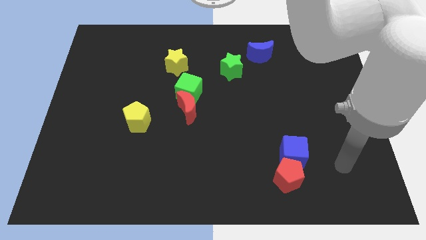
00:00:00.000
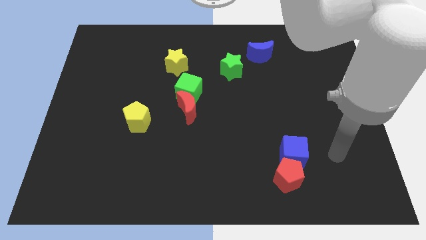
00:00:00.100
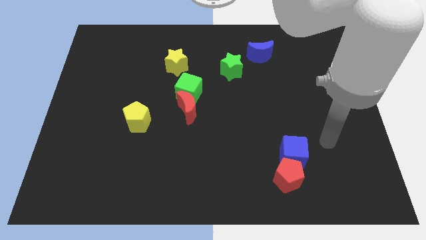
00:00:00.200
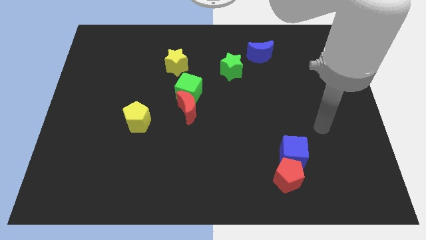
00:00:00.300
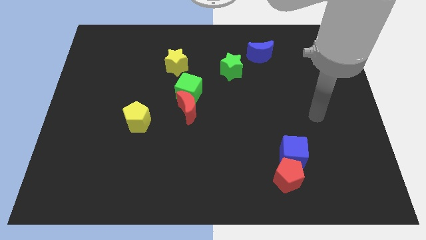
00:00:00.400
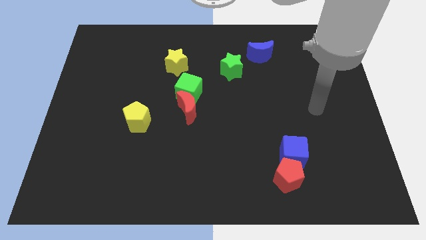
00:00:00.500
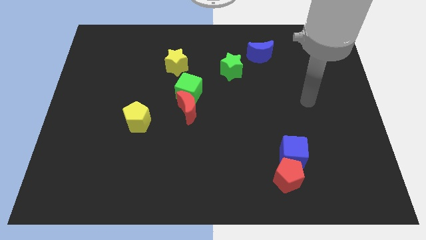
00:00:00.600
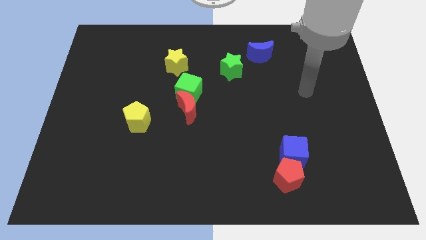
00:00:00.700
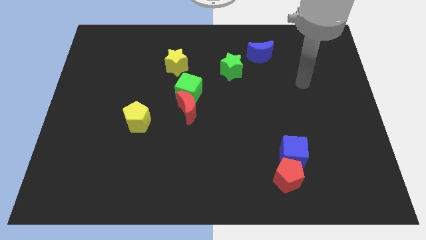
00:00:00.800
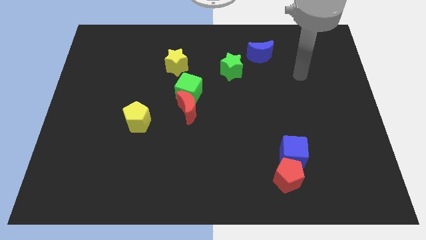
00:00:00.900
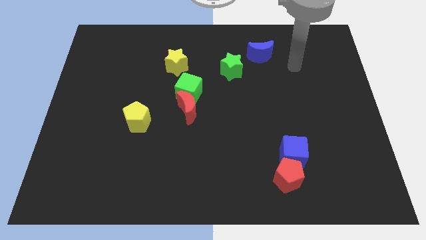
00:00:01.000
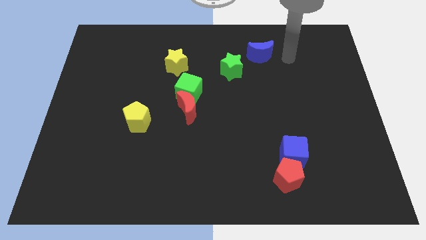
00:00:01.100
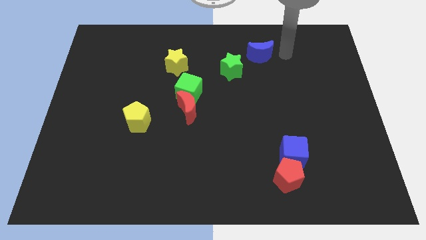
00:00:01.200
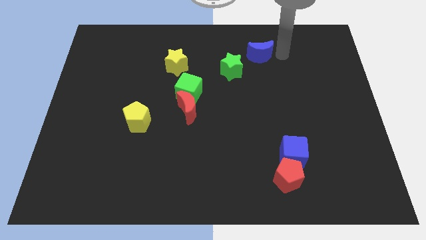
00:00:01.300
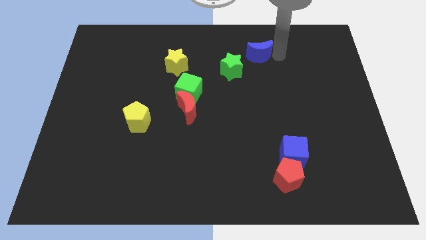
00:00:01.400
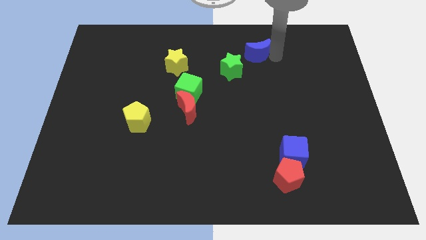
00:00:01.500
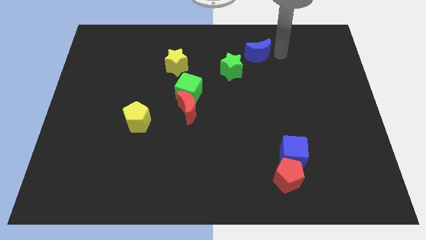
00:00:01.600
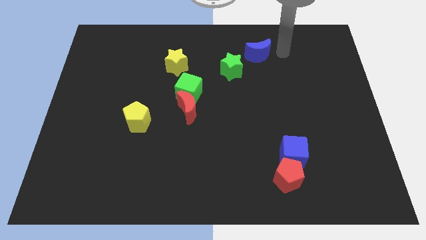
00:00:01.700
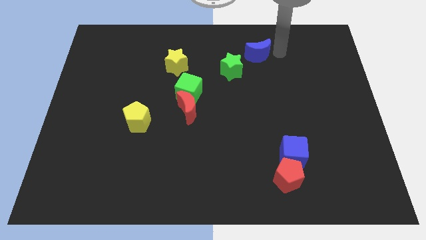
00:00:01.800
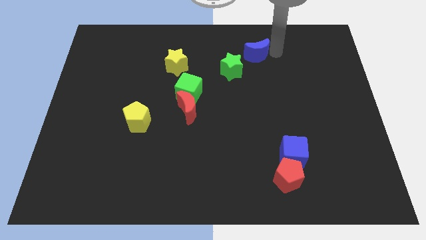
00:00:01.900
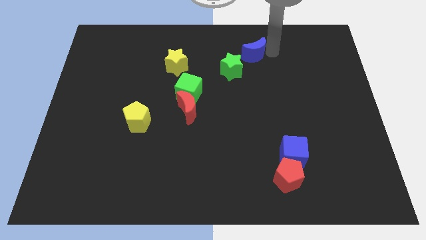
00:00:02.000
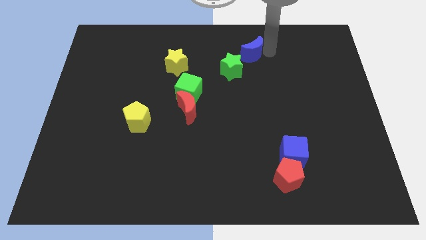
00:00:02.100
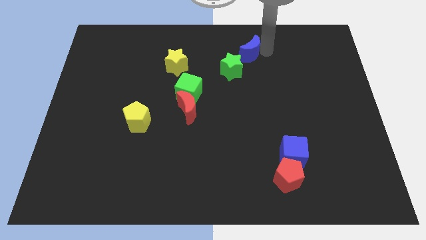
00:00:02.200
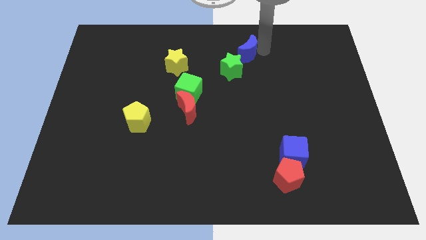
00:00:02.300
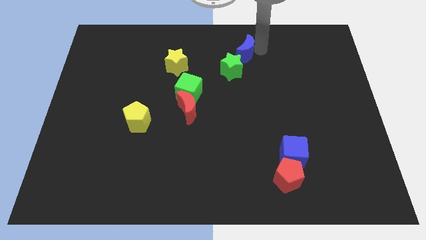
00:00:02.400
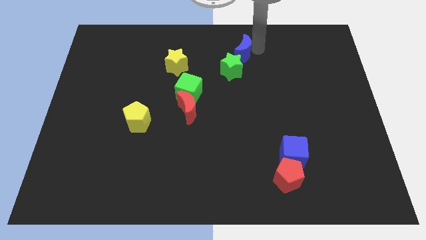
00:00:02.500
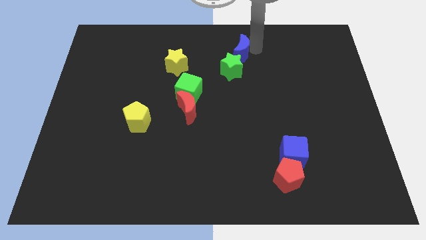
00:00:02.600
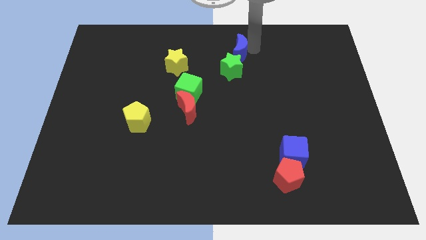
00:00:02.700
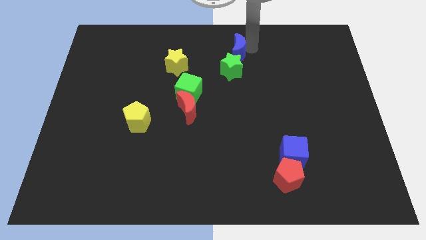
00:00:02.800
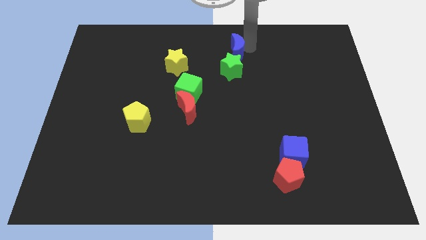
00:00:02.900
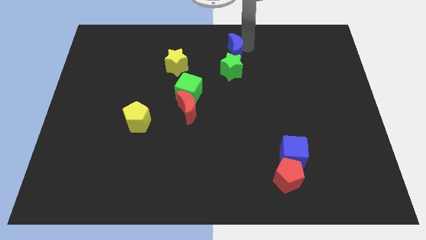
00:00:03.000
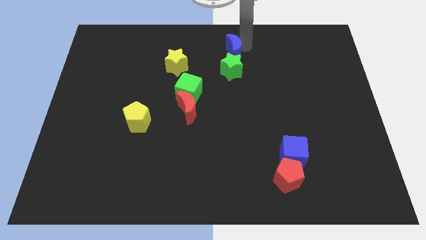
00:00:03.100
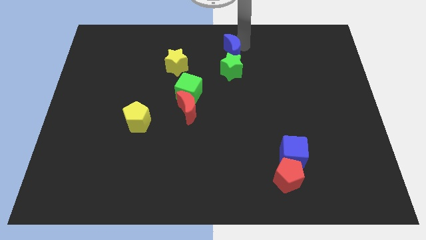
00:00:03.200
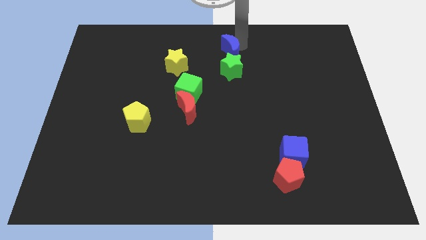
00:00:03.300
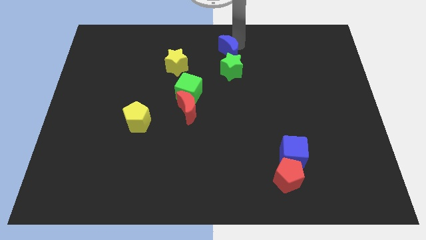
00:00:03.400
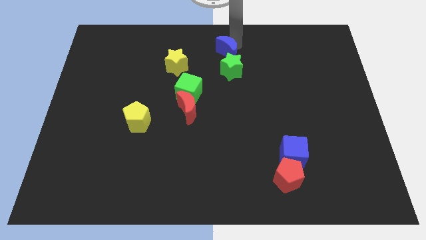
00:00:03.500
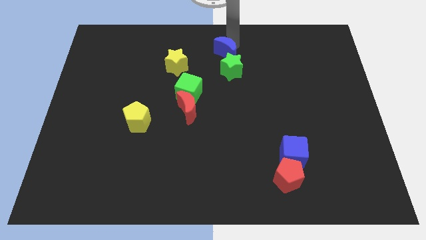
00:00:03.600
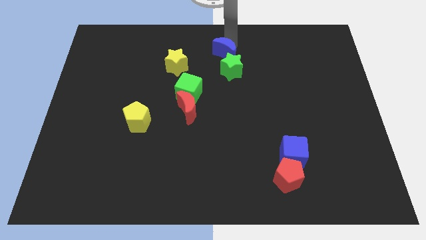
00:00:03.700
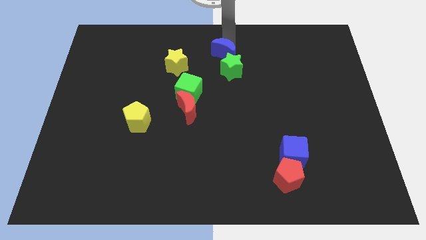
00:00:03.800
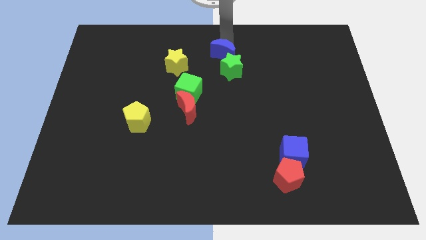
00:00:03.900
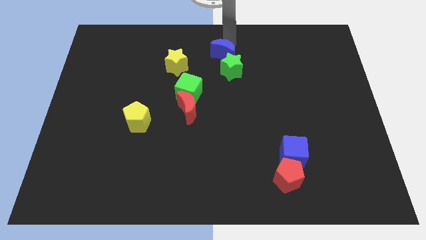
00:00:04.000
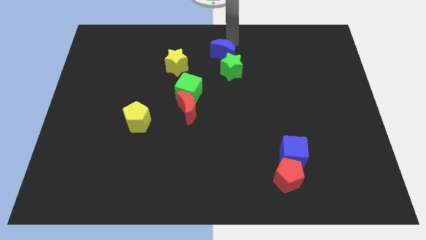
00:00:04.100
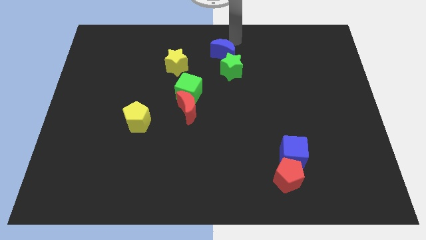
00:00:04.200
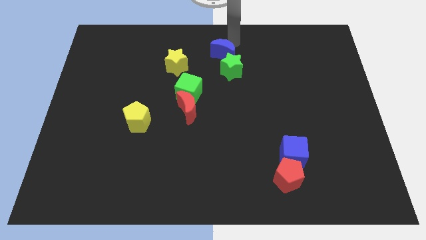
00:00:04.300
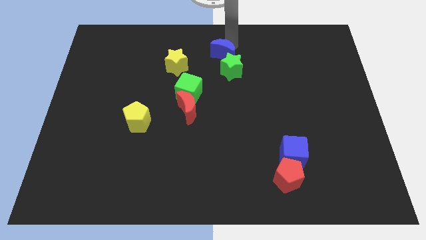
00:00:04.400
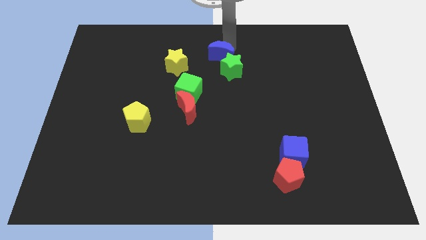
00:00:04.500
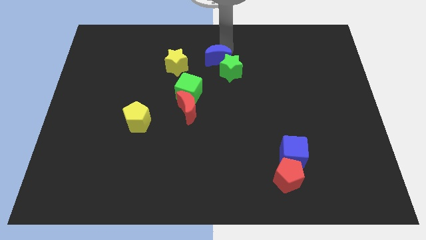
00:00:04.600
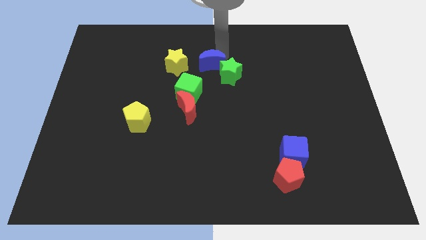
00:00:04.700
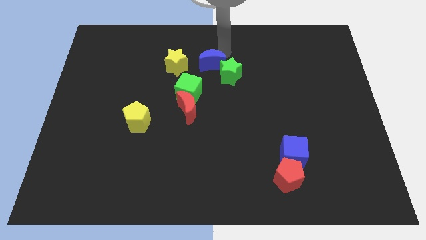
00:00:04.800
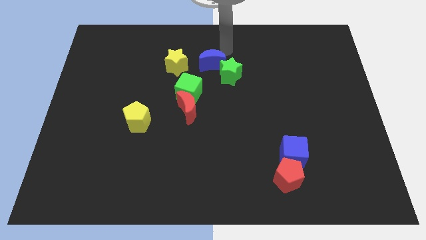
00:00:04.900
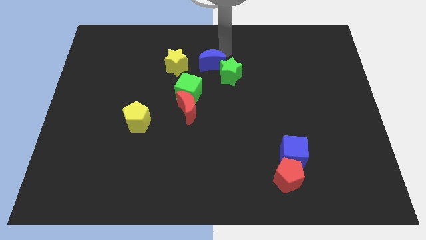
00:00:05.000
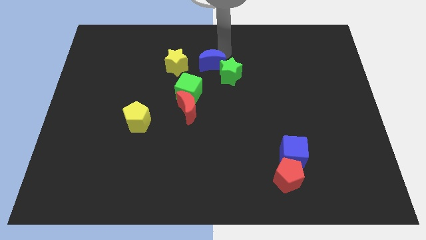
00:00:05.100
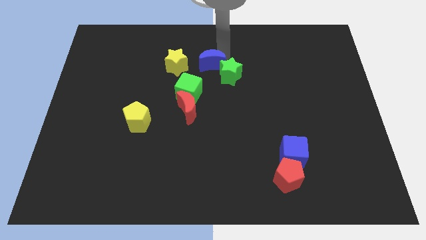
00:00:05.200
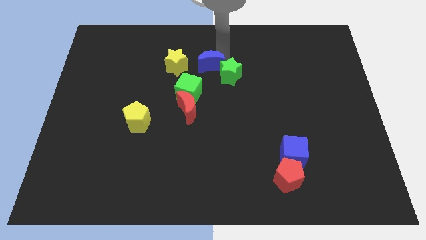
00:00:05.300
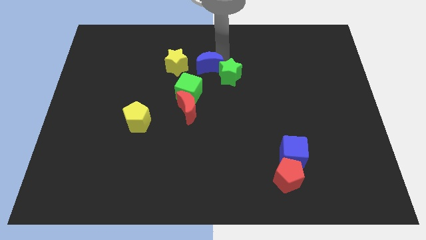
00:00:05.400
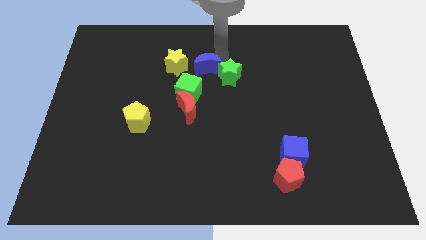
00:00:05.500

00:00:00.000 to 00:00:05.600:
slide the blue moon diagonally down and to the right of the yellow star

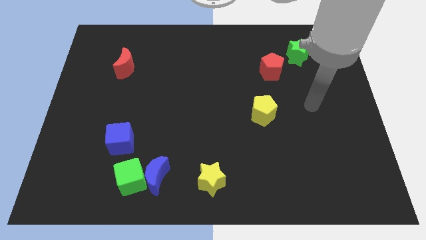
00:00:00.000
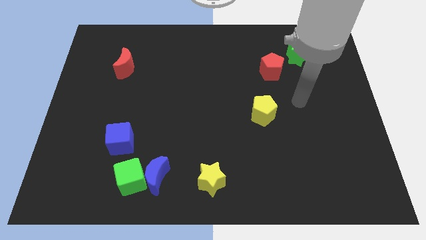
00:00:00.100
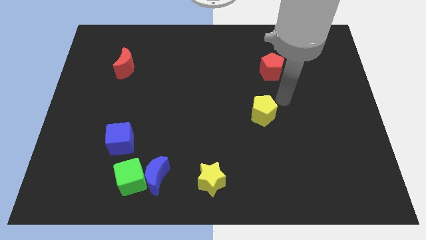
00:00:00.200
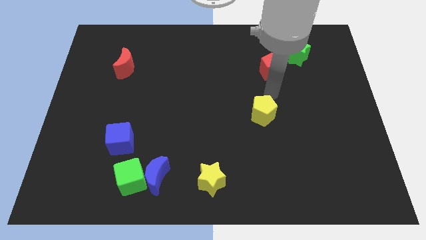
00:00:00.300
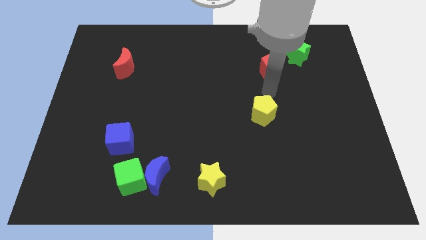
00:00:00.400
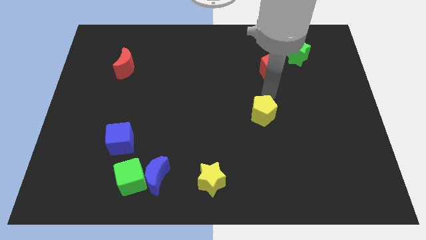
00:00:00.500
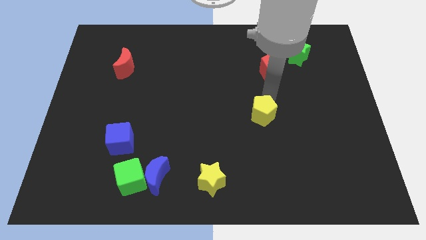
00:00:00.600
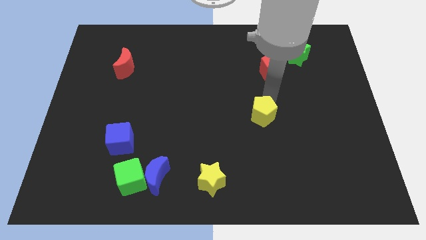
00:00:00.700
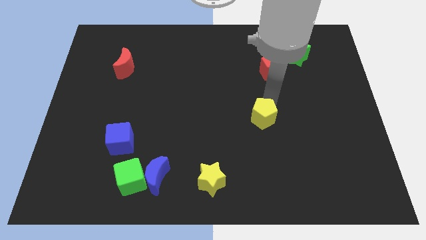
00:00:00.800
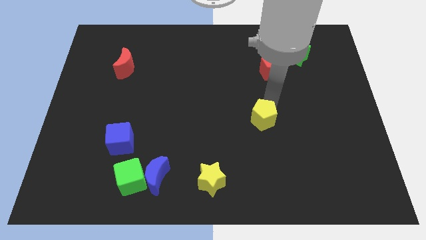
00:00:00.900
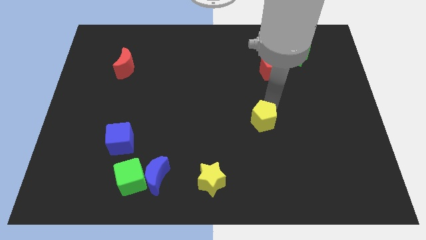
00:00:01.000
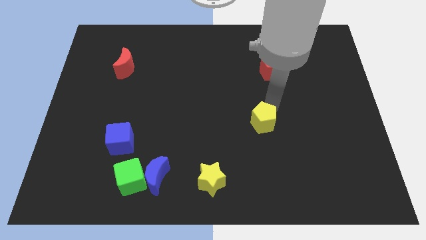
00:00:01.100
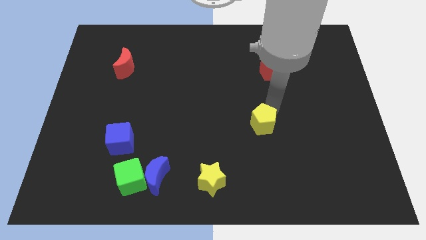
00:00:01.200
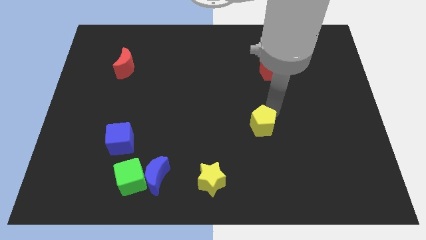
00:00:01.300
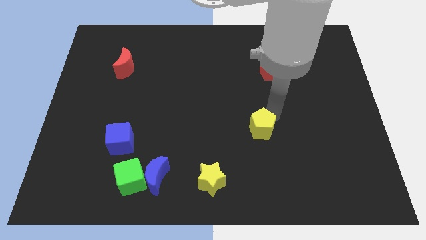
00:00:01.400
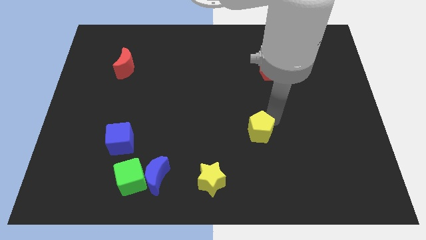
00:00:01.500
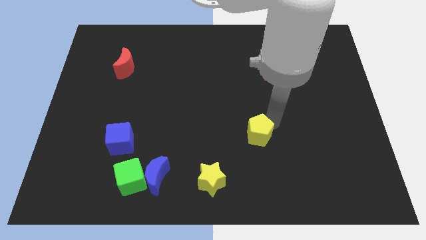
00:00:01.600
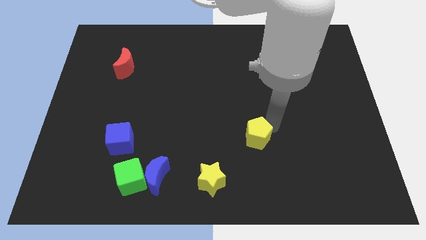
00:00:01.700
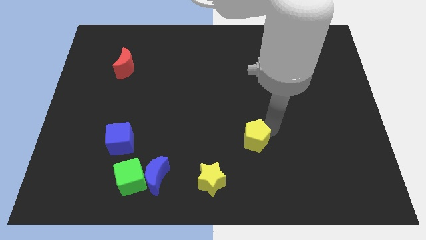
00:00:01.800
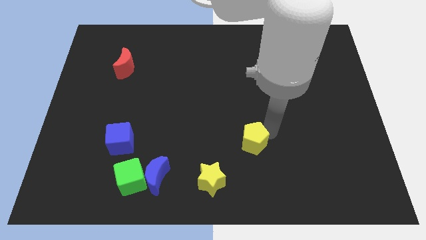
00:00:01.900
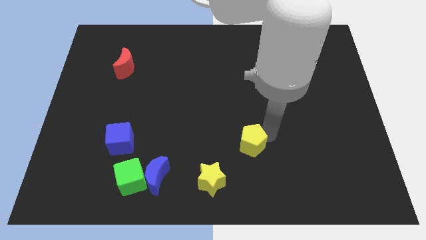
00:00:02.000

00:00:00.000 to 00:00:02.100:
move the yellow pentagon to the top right side of the yellow star

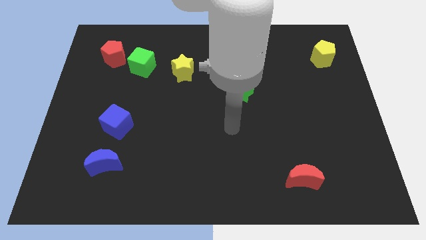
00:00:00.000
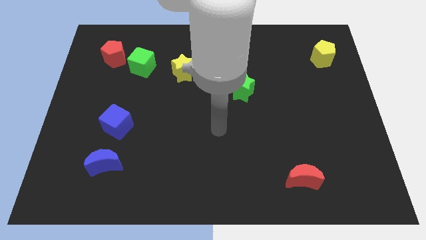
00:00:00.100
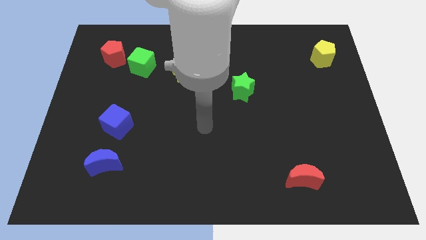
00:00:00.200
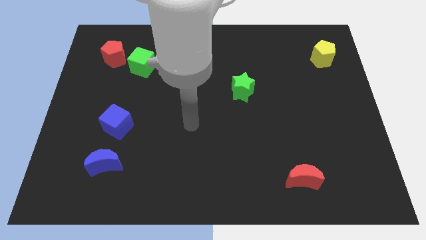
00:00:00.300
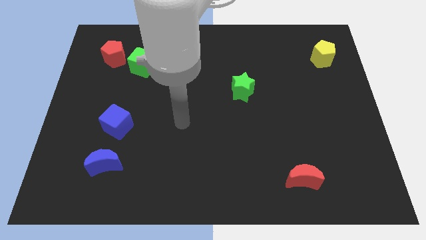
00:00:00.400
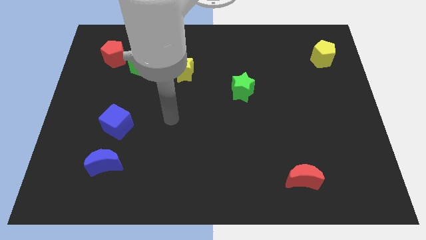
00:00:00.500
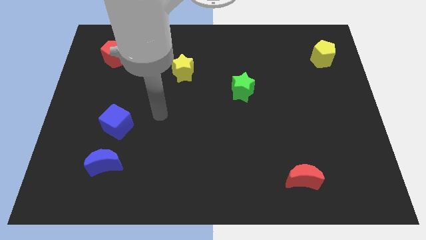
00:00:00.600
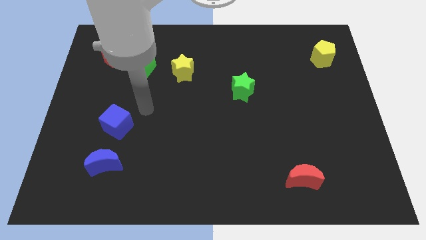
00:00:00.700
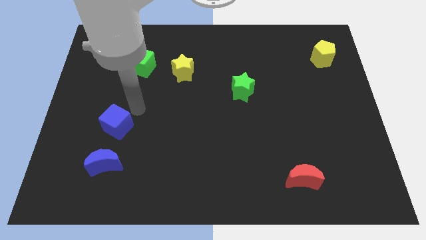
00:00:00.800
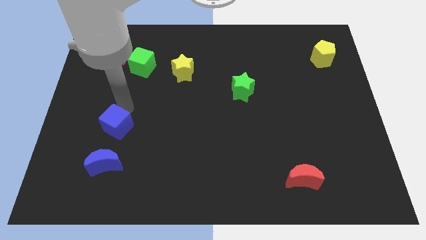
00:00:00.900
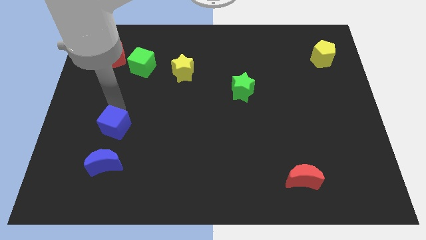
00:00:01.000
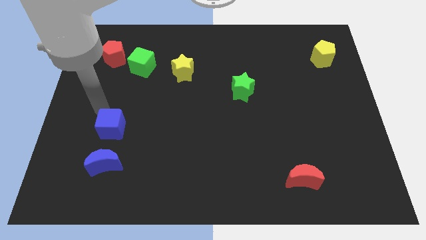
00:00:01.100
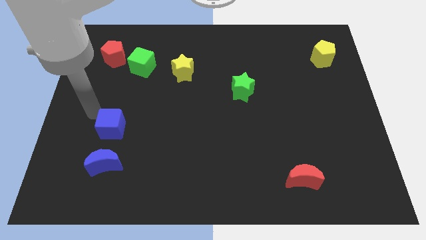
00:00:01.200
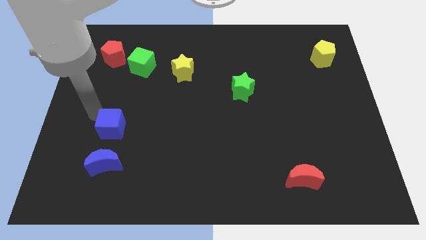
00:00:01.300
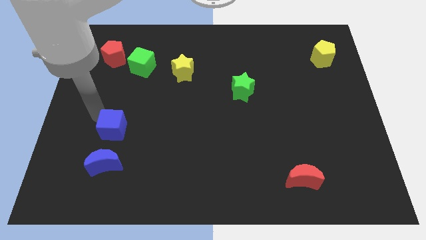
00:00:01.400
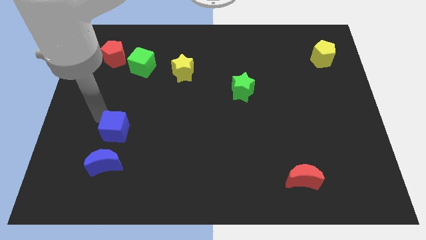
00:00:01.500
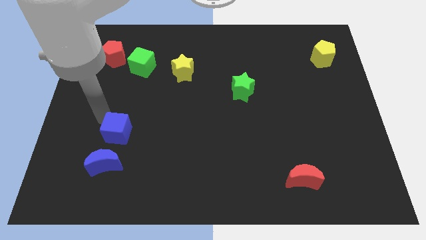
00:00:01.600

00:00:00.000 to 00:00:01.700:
put the blue cube diagonally up and to the right of the blue moon
